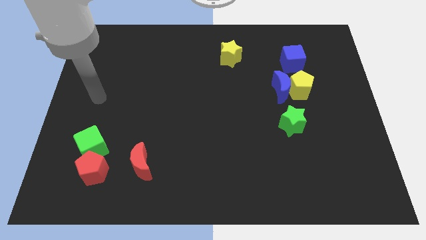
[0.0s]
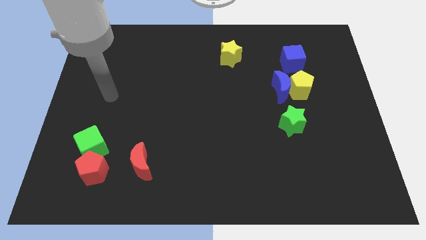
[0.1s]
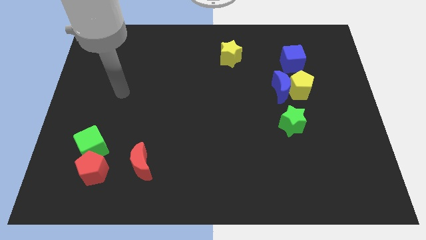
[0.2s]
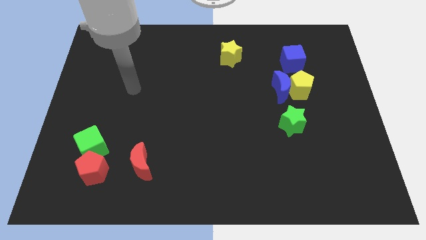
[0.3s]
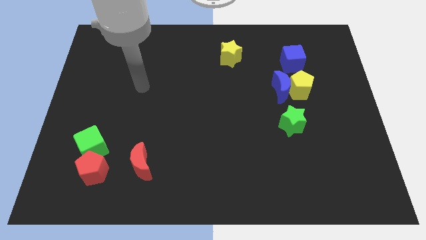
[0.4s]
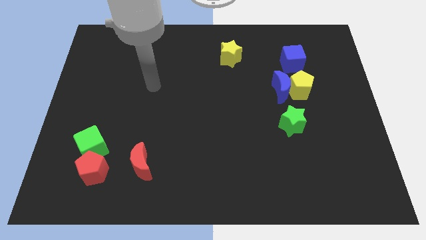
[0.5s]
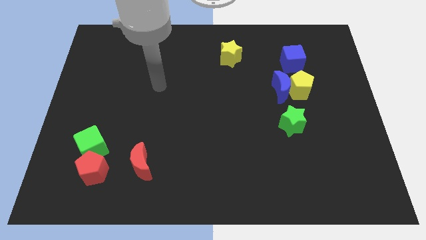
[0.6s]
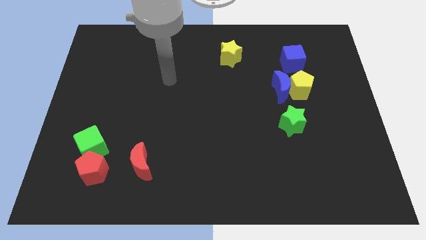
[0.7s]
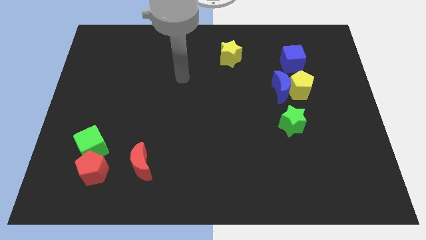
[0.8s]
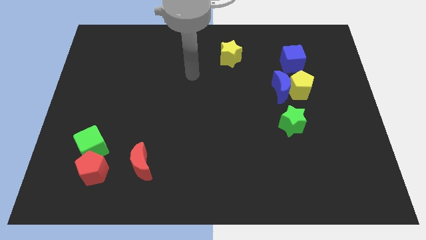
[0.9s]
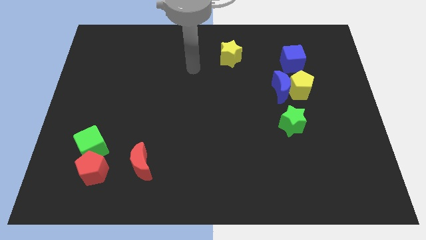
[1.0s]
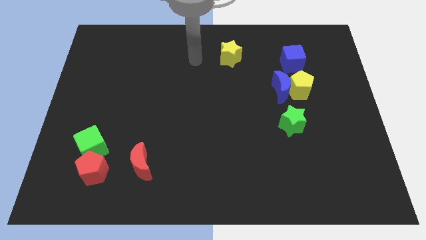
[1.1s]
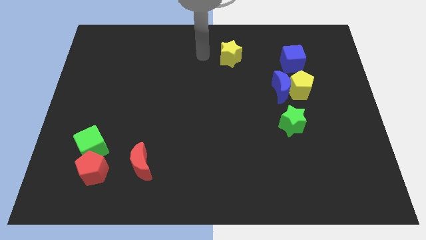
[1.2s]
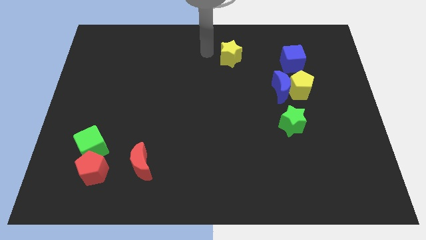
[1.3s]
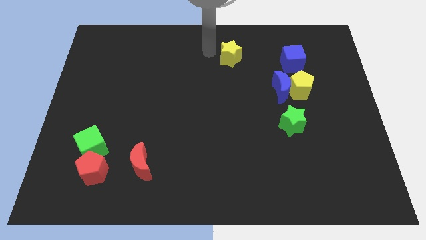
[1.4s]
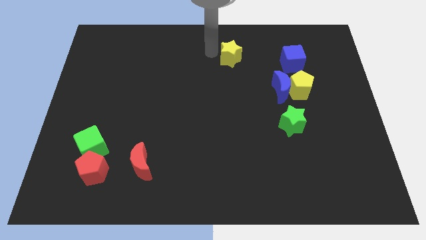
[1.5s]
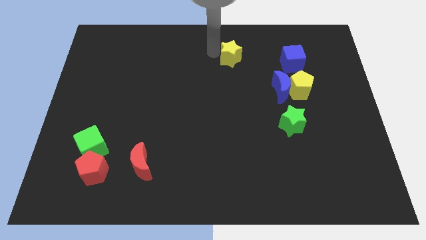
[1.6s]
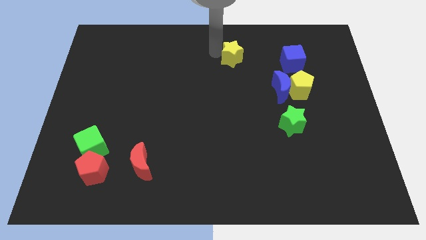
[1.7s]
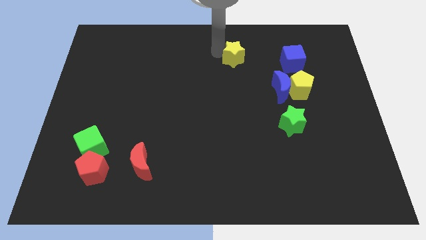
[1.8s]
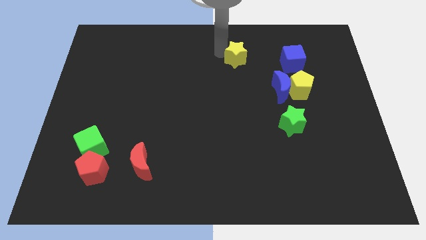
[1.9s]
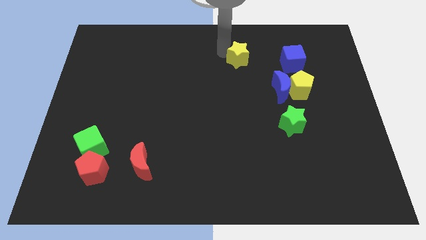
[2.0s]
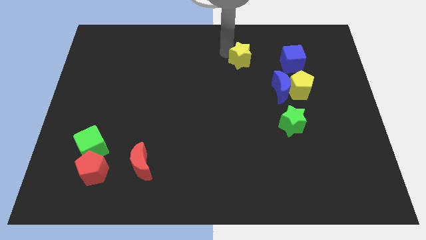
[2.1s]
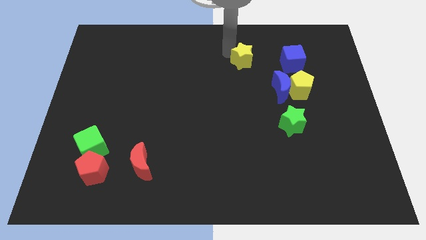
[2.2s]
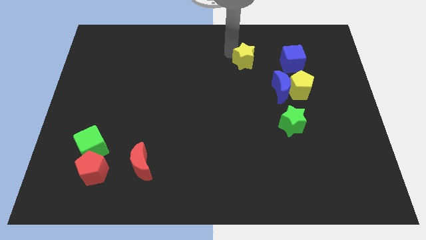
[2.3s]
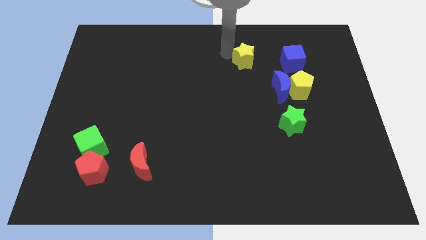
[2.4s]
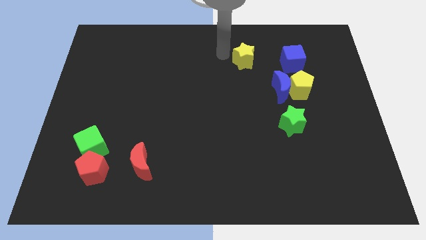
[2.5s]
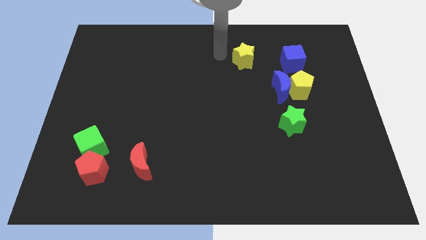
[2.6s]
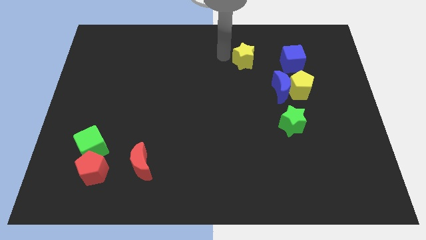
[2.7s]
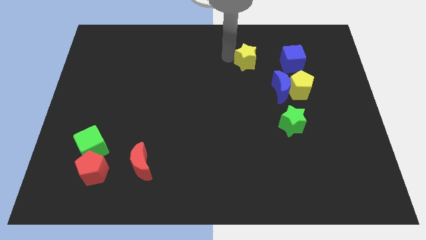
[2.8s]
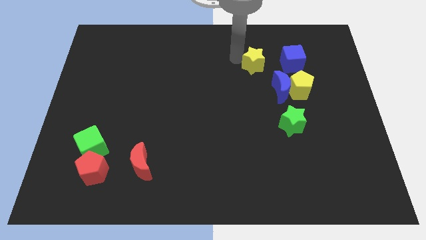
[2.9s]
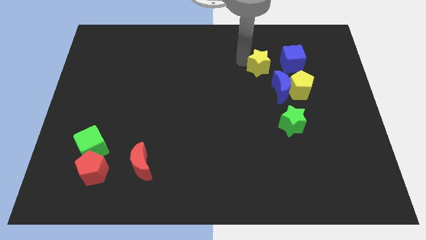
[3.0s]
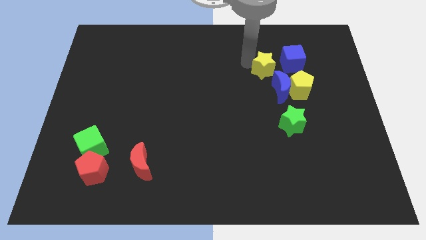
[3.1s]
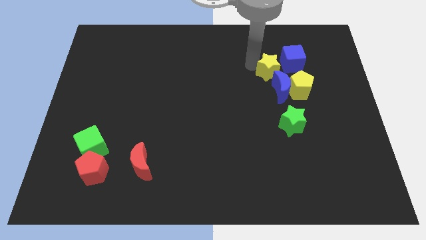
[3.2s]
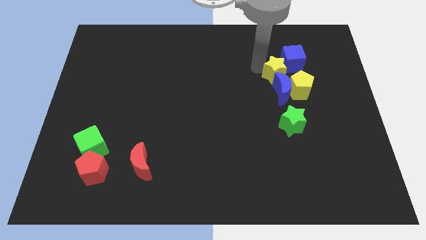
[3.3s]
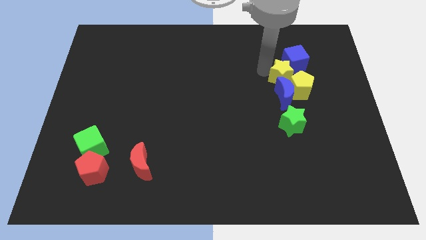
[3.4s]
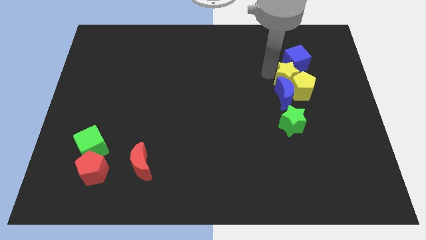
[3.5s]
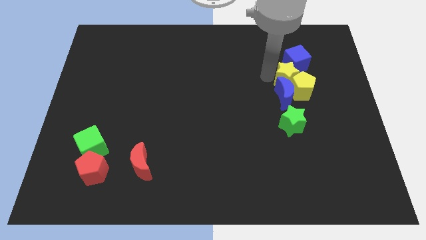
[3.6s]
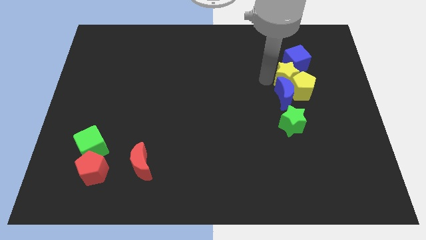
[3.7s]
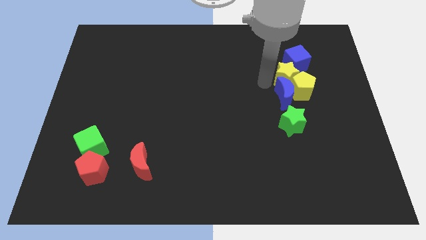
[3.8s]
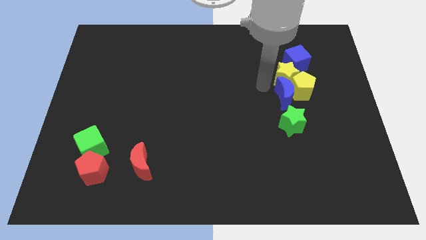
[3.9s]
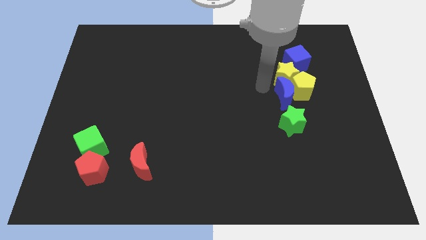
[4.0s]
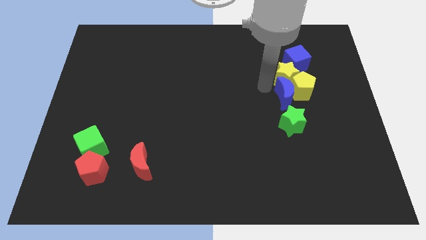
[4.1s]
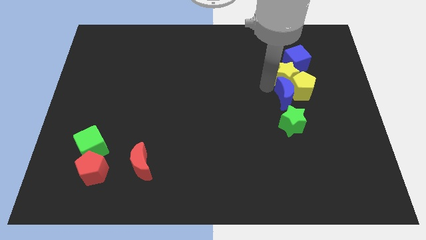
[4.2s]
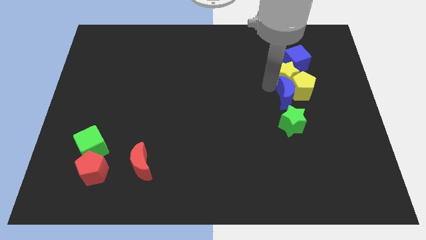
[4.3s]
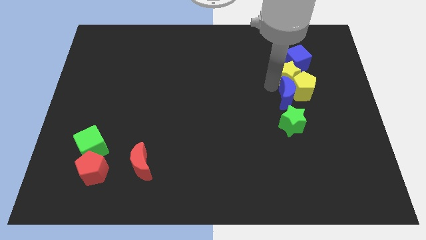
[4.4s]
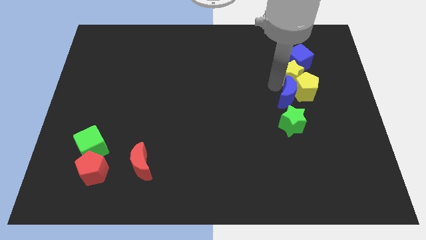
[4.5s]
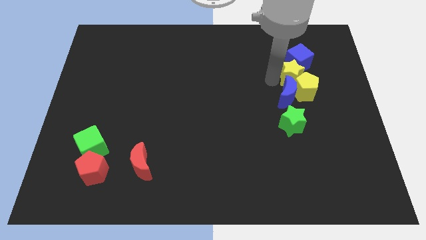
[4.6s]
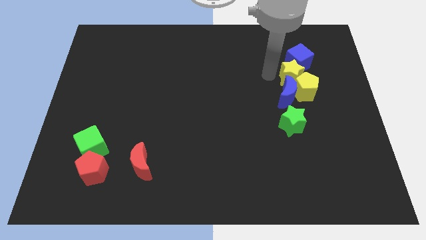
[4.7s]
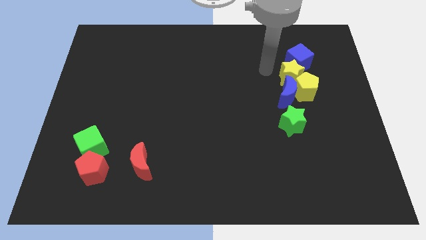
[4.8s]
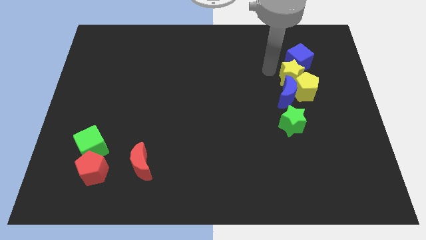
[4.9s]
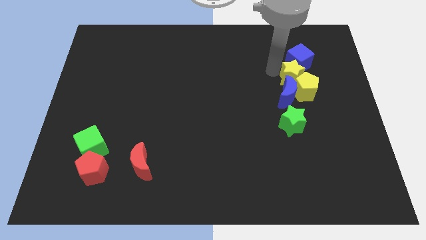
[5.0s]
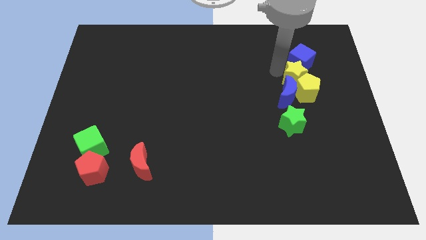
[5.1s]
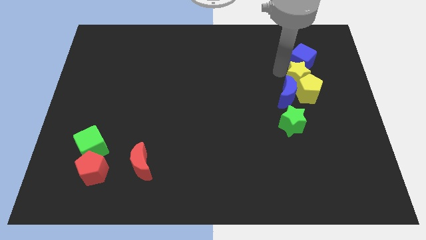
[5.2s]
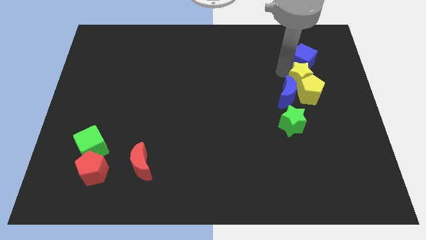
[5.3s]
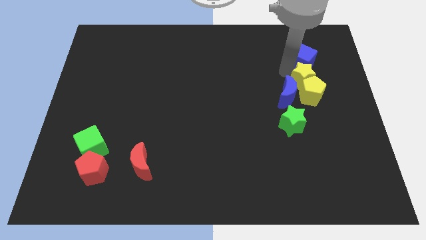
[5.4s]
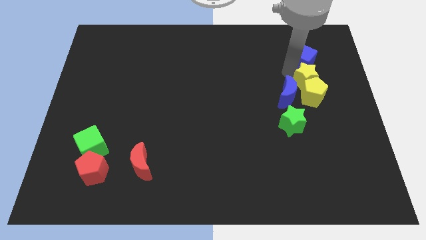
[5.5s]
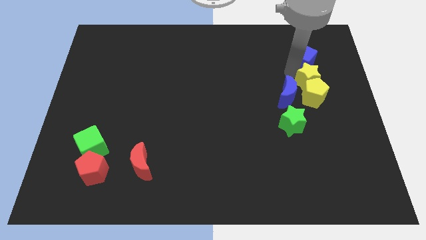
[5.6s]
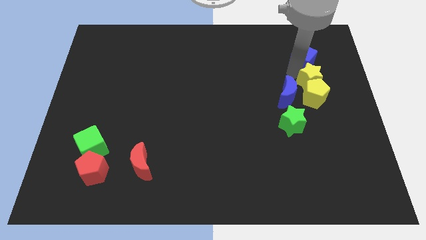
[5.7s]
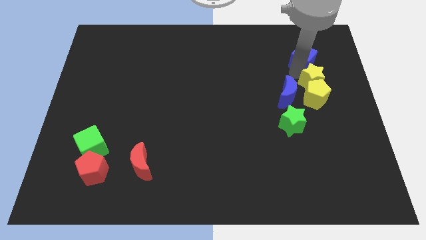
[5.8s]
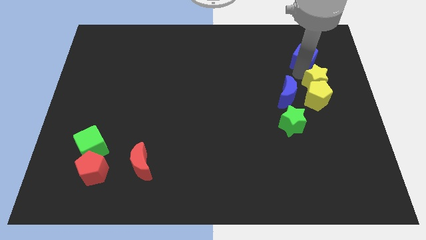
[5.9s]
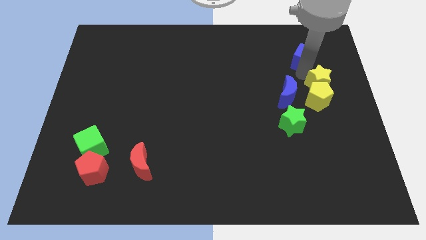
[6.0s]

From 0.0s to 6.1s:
push the yellow star to the right side
